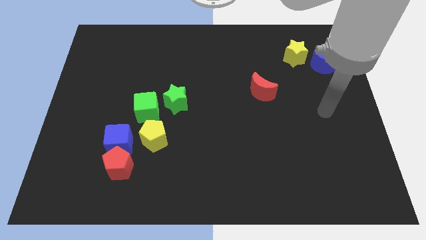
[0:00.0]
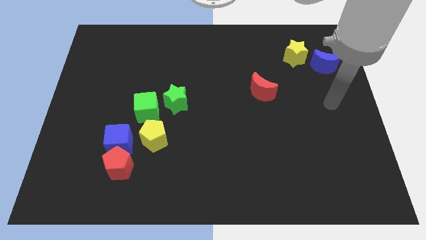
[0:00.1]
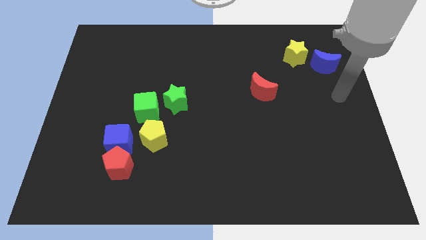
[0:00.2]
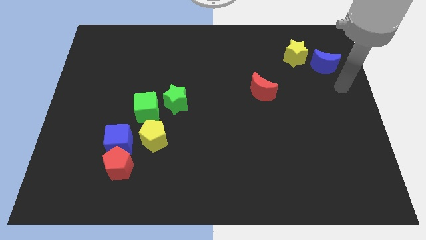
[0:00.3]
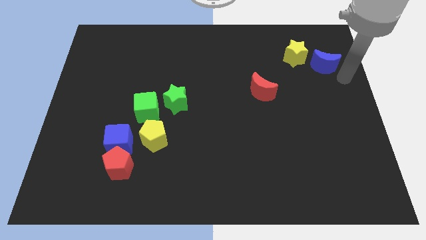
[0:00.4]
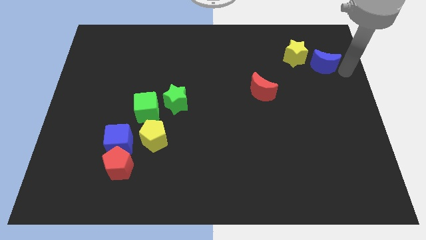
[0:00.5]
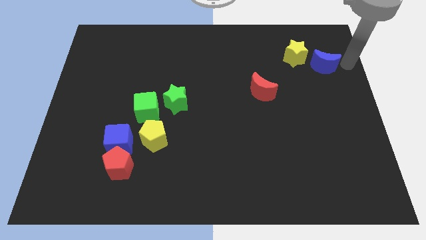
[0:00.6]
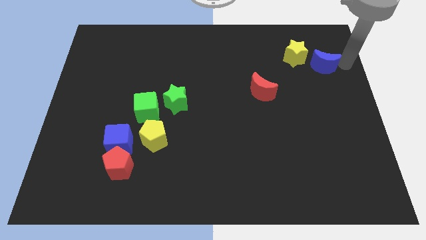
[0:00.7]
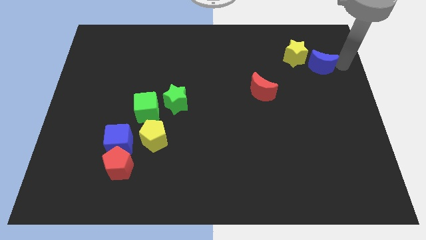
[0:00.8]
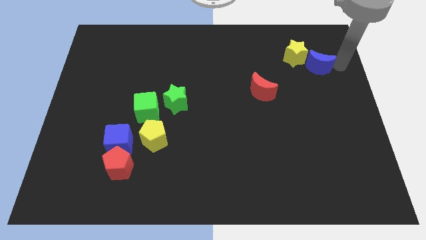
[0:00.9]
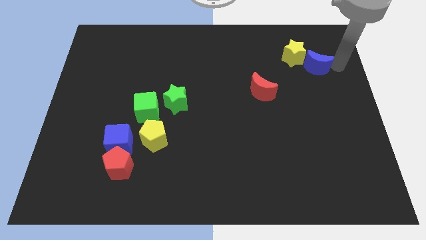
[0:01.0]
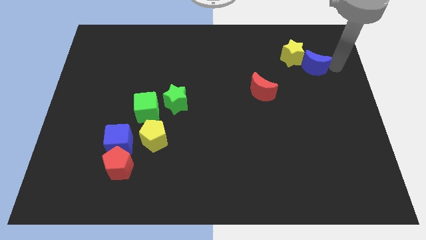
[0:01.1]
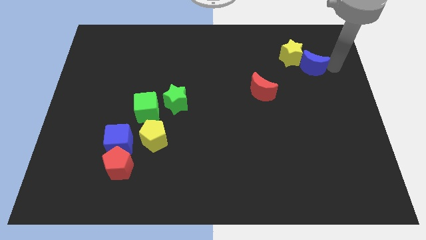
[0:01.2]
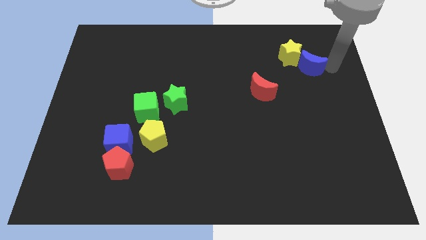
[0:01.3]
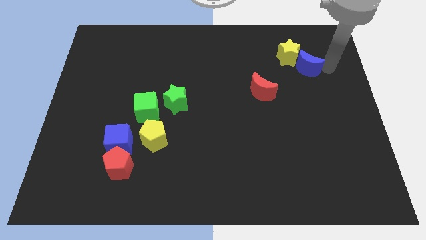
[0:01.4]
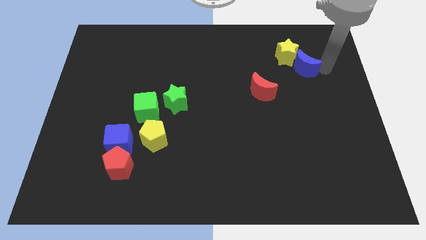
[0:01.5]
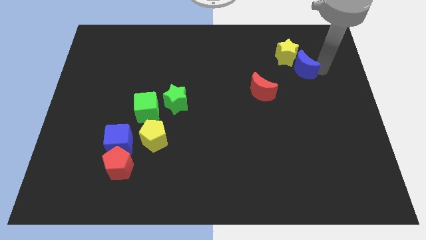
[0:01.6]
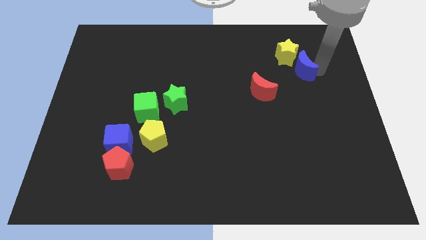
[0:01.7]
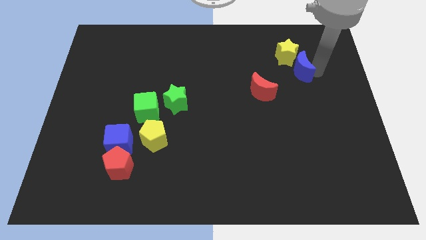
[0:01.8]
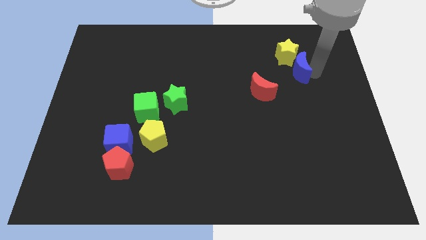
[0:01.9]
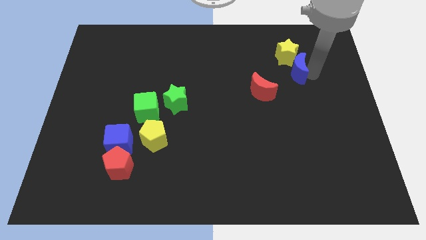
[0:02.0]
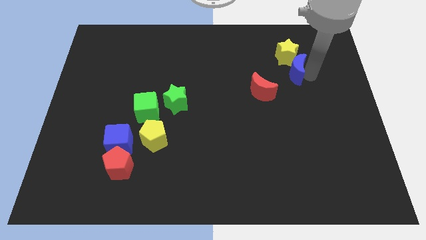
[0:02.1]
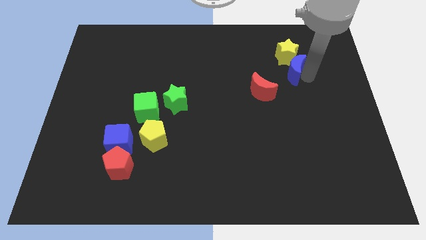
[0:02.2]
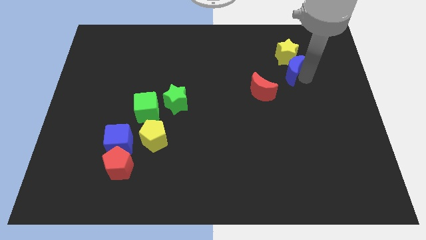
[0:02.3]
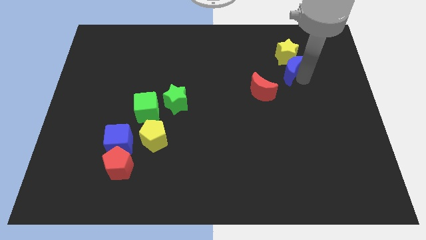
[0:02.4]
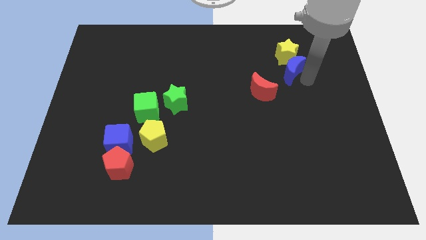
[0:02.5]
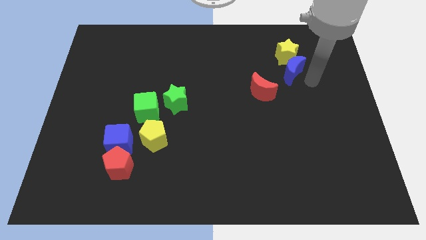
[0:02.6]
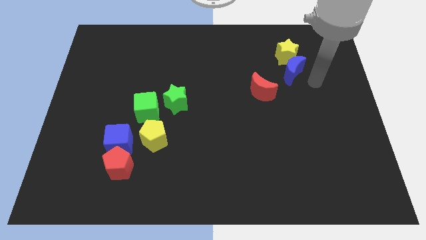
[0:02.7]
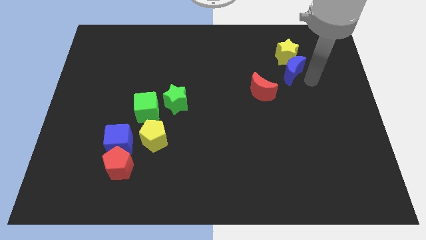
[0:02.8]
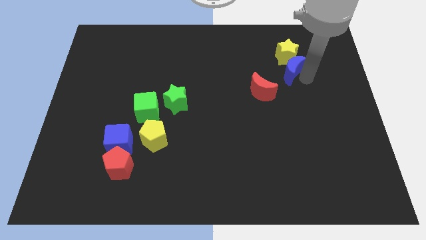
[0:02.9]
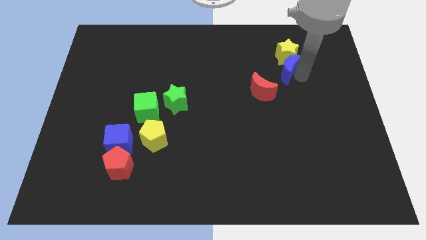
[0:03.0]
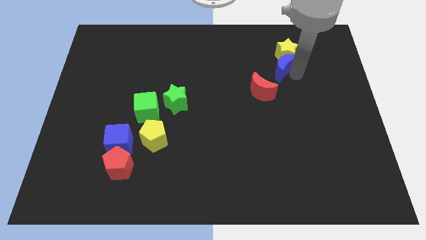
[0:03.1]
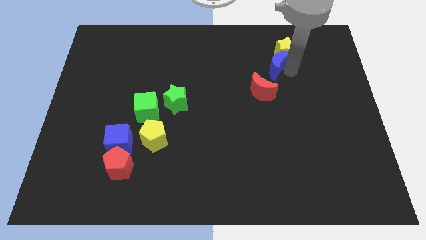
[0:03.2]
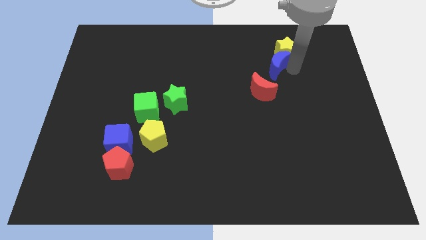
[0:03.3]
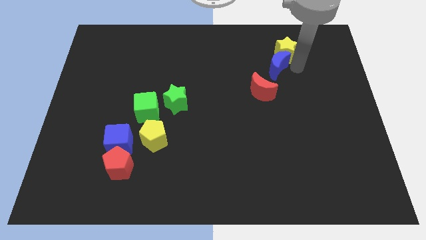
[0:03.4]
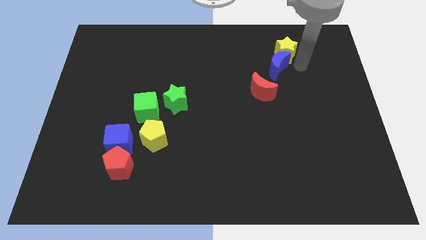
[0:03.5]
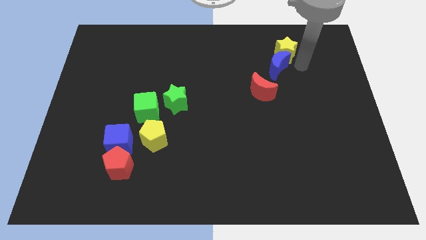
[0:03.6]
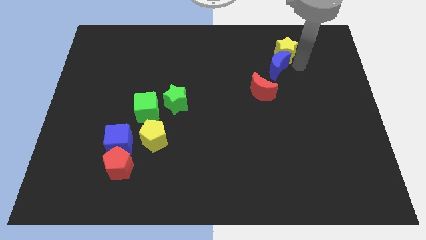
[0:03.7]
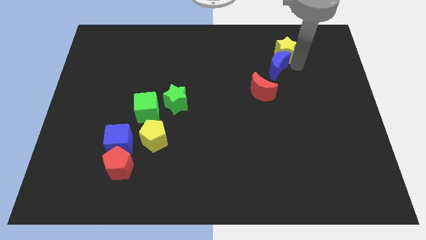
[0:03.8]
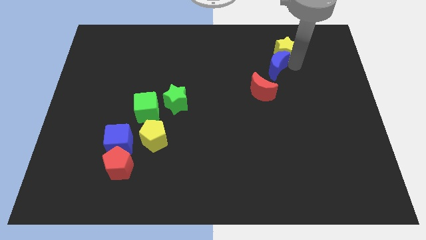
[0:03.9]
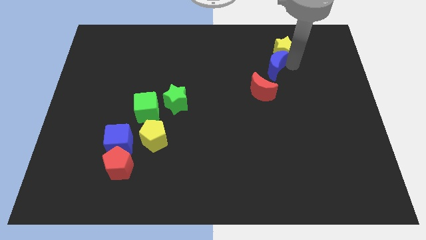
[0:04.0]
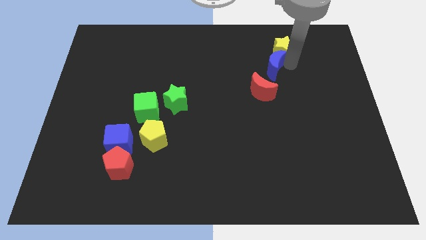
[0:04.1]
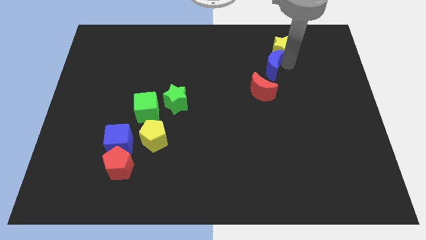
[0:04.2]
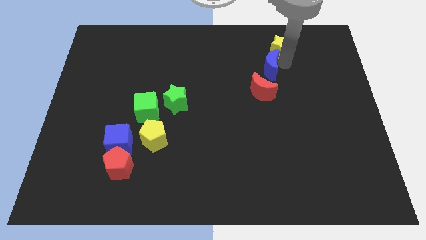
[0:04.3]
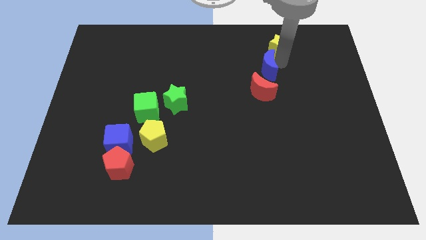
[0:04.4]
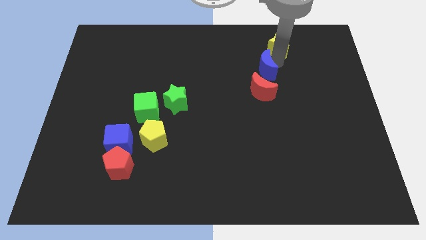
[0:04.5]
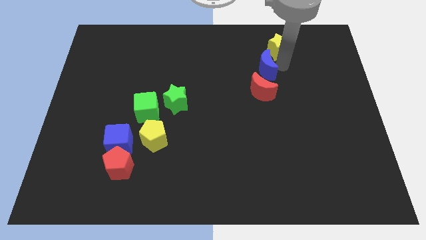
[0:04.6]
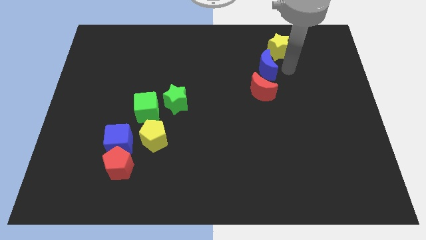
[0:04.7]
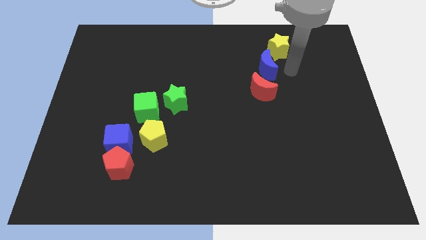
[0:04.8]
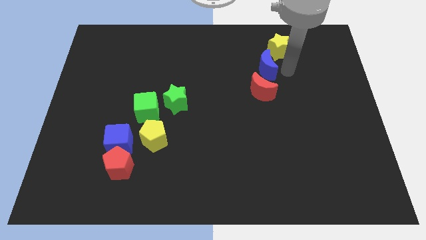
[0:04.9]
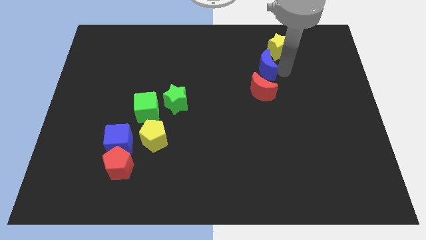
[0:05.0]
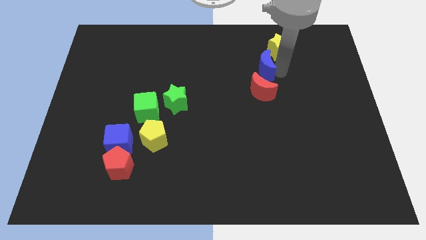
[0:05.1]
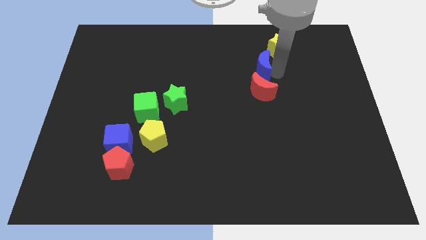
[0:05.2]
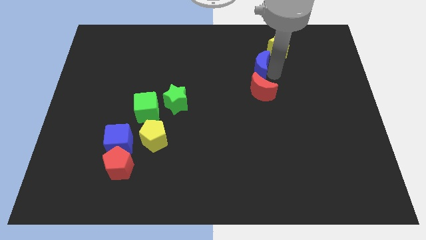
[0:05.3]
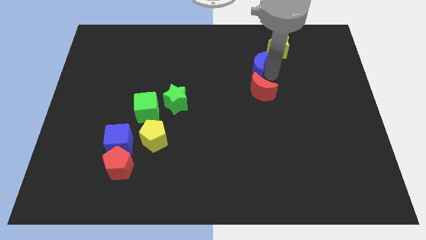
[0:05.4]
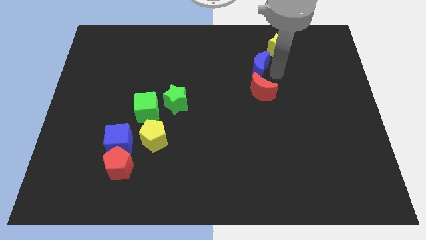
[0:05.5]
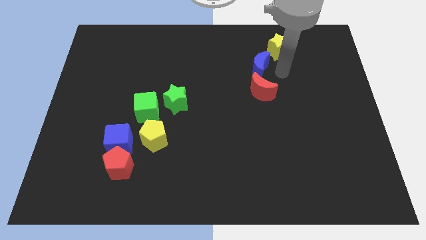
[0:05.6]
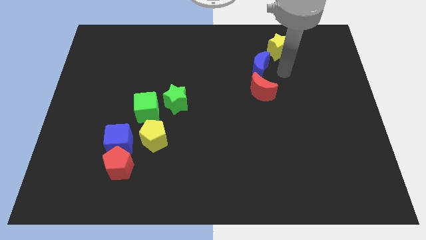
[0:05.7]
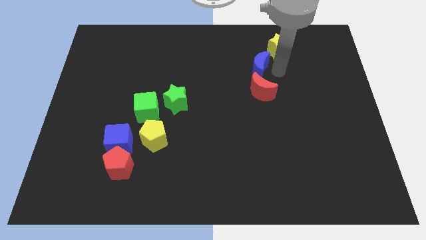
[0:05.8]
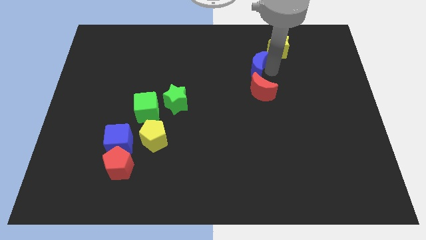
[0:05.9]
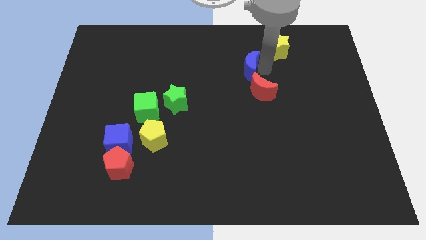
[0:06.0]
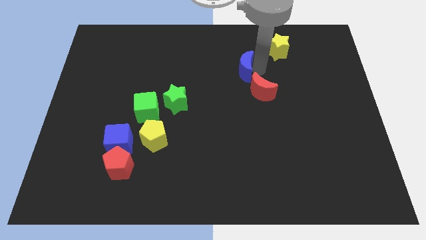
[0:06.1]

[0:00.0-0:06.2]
slide the blue moon to the left

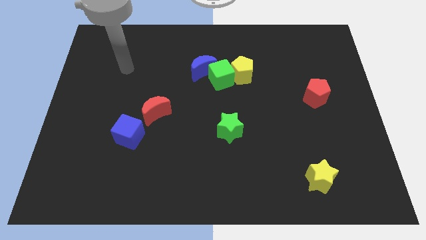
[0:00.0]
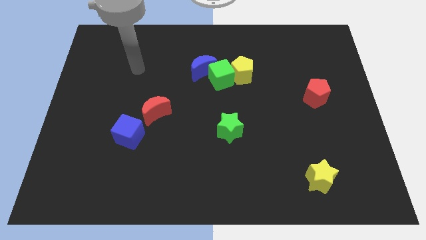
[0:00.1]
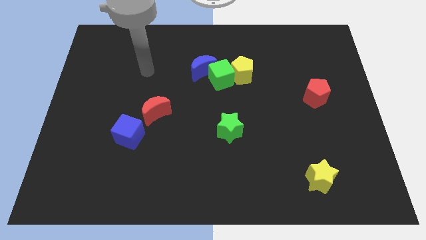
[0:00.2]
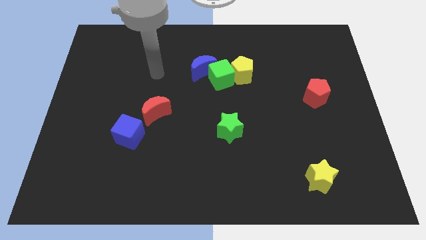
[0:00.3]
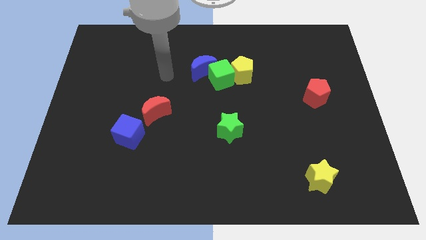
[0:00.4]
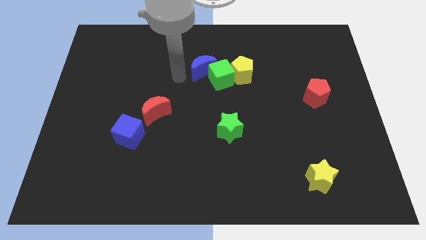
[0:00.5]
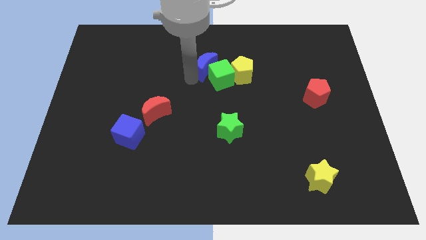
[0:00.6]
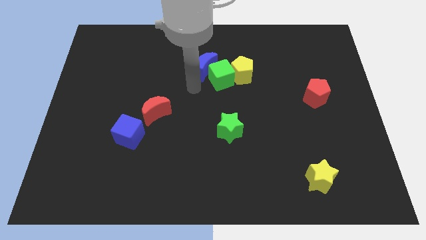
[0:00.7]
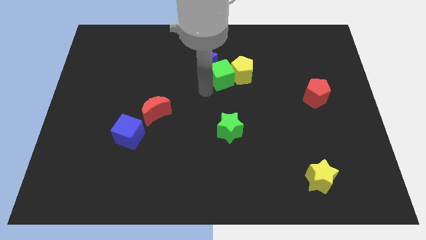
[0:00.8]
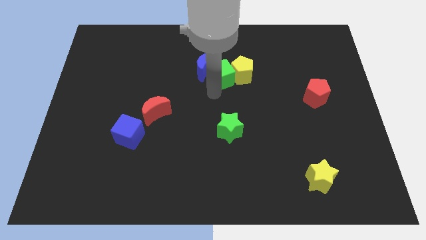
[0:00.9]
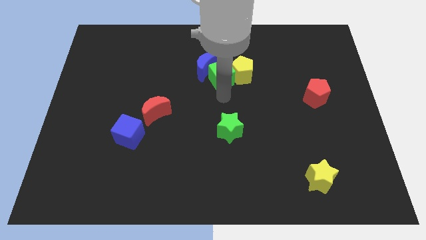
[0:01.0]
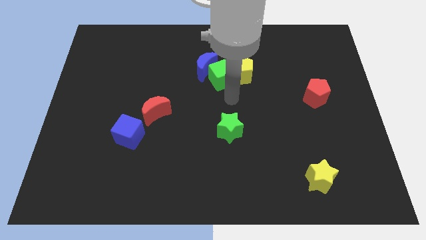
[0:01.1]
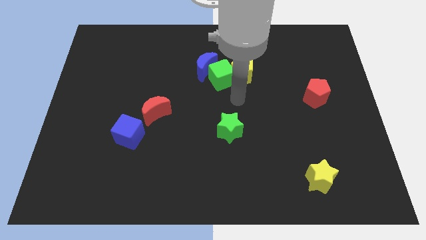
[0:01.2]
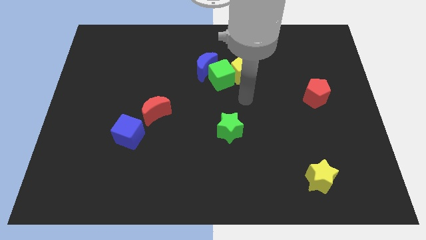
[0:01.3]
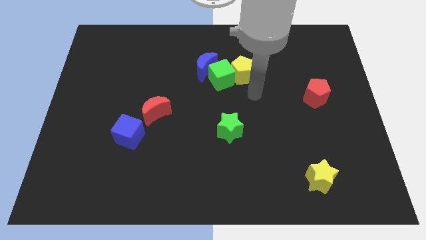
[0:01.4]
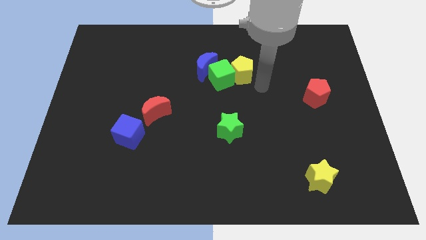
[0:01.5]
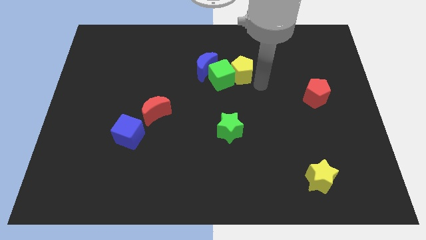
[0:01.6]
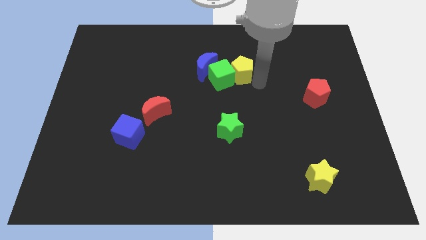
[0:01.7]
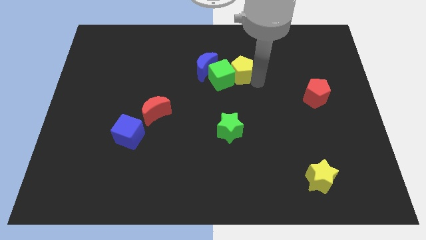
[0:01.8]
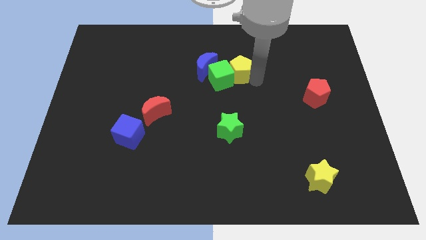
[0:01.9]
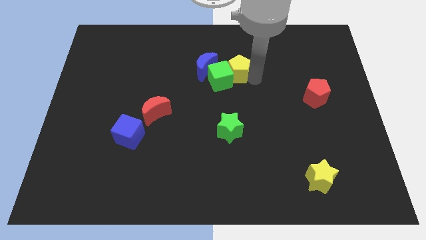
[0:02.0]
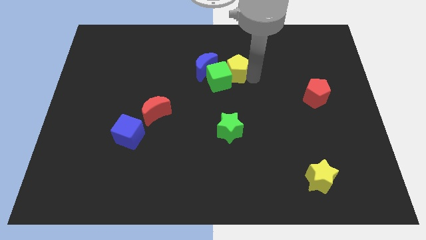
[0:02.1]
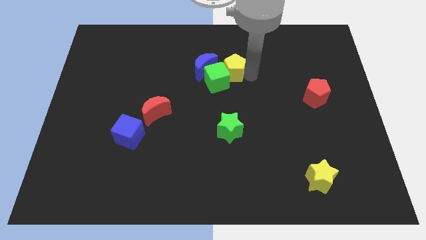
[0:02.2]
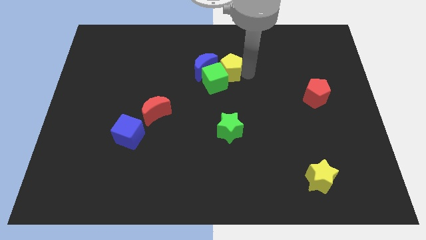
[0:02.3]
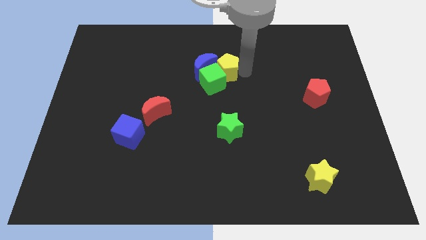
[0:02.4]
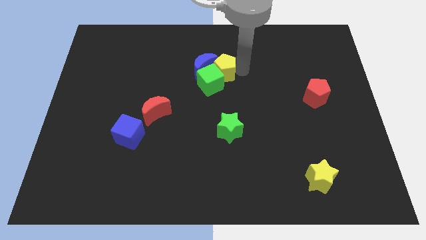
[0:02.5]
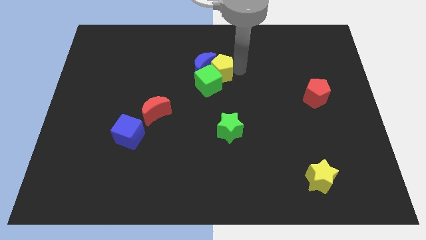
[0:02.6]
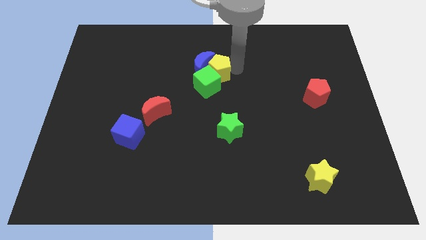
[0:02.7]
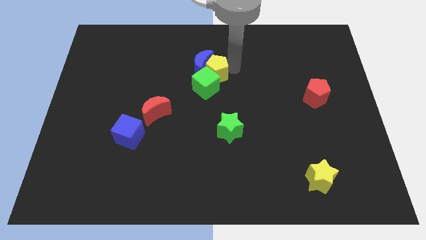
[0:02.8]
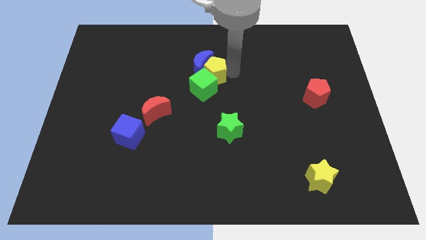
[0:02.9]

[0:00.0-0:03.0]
move the yellow pentagon to the left a bit
